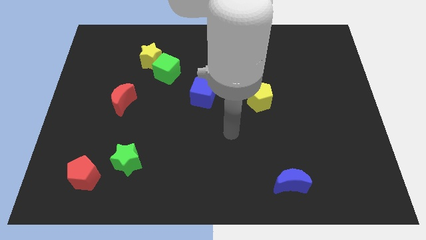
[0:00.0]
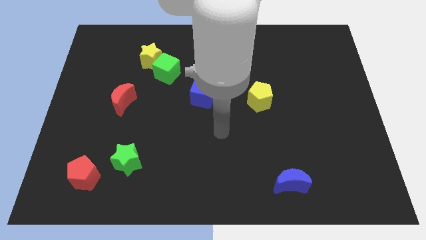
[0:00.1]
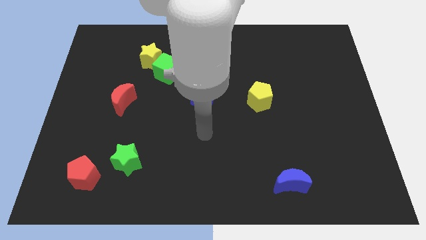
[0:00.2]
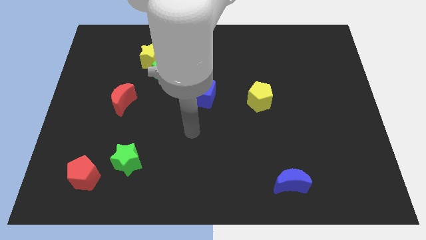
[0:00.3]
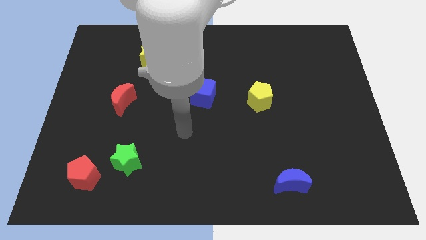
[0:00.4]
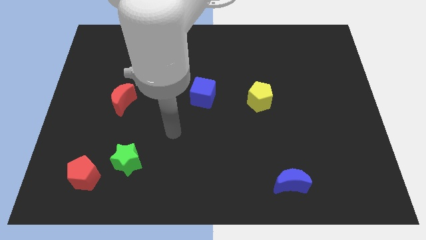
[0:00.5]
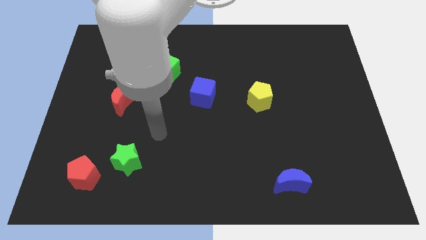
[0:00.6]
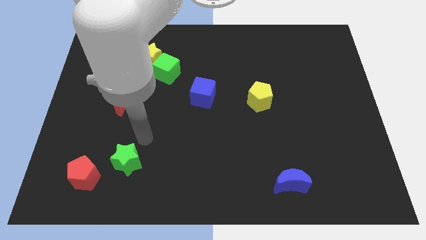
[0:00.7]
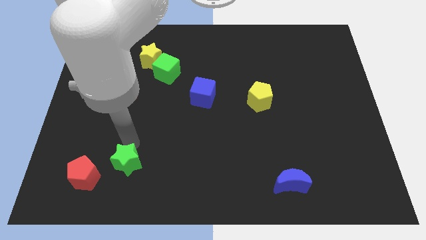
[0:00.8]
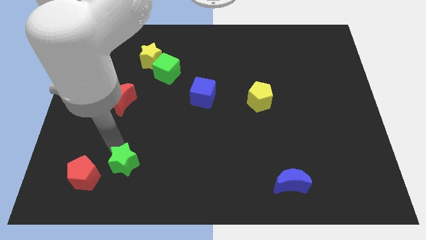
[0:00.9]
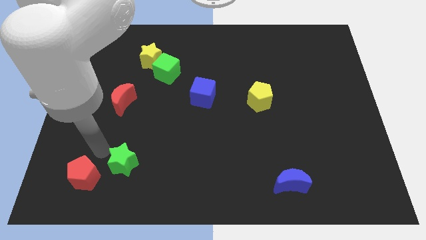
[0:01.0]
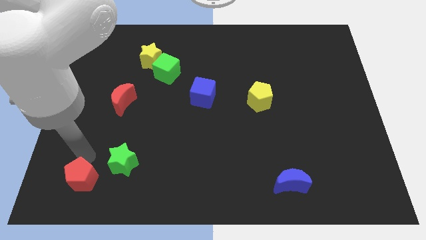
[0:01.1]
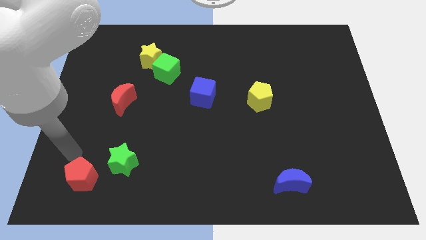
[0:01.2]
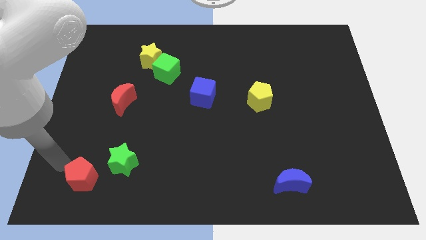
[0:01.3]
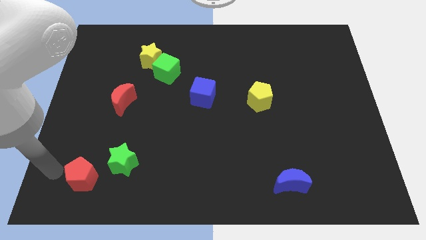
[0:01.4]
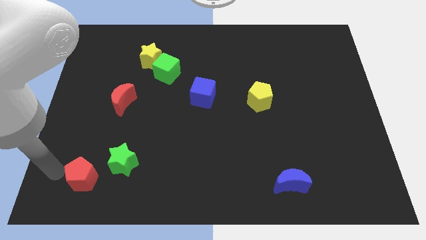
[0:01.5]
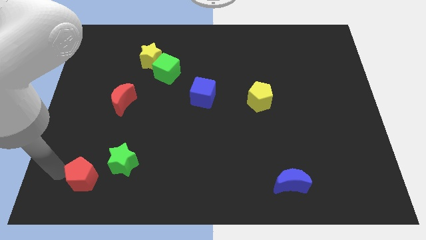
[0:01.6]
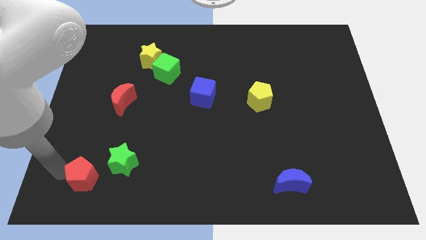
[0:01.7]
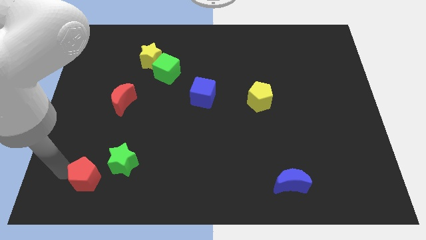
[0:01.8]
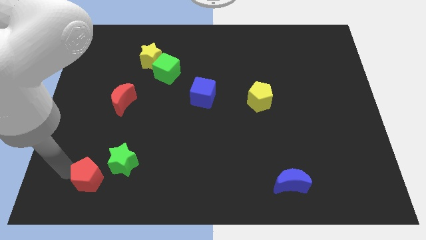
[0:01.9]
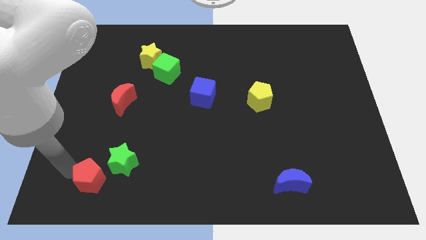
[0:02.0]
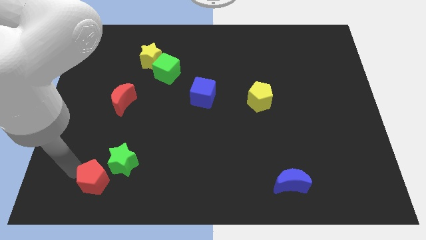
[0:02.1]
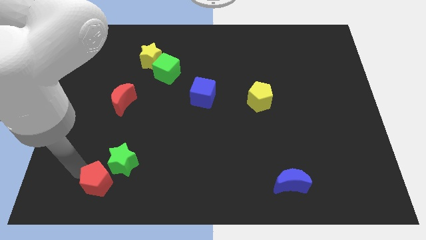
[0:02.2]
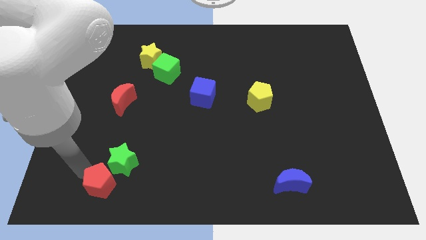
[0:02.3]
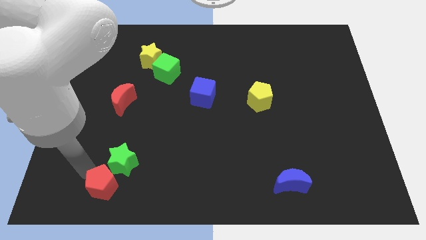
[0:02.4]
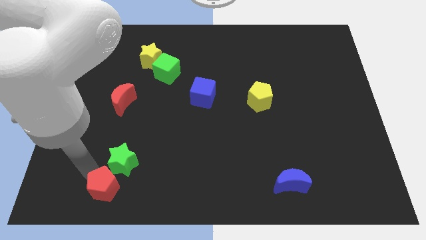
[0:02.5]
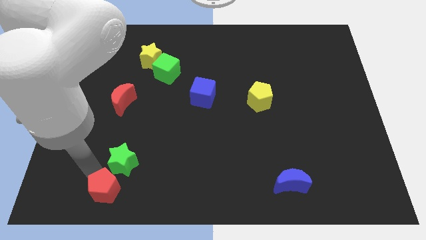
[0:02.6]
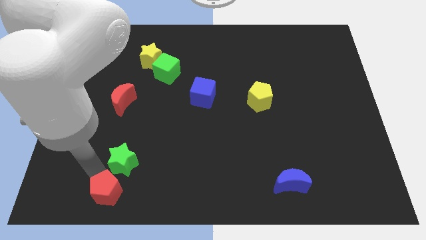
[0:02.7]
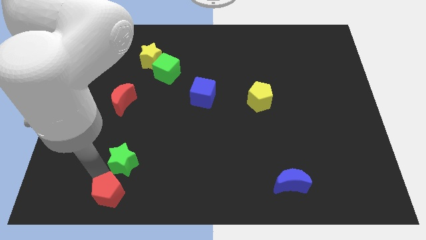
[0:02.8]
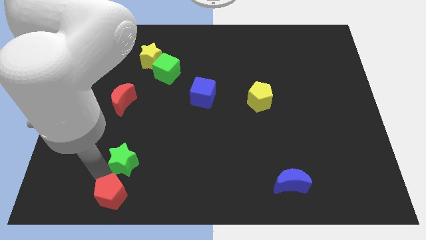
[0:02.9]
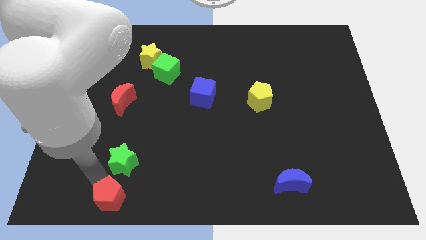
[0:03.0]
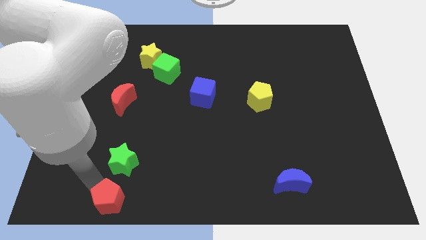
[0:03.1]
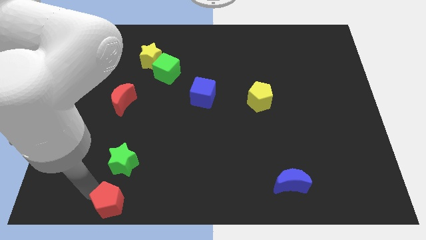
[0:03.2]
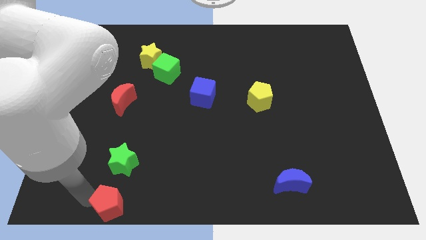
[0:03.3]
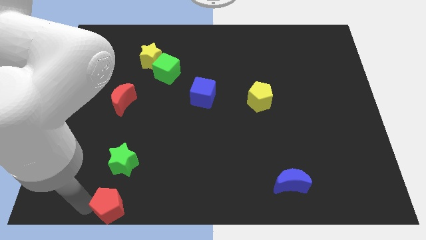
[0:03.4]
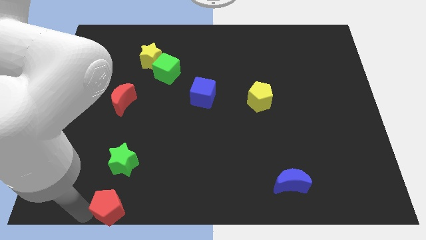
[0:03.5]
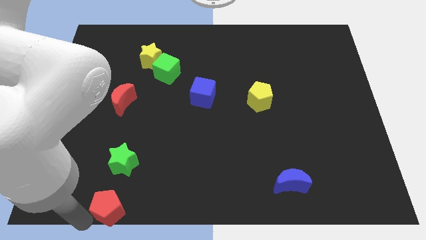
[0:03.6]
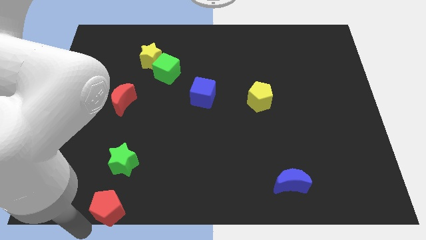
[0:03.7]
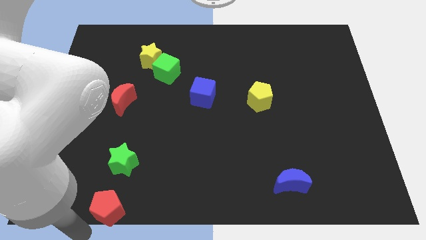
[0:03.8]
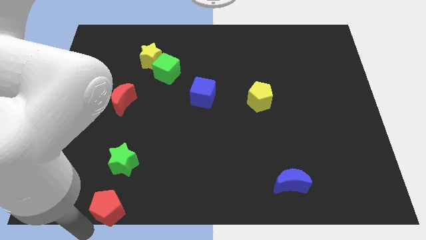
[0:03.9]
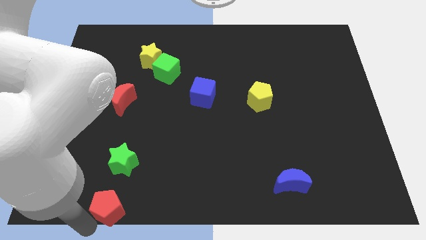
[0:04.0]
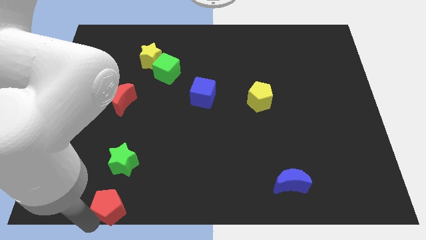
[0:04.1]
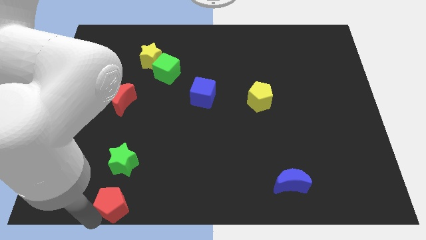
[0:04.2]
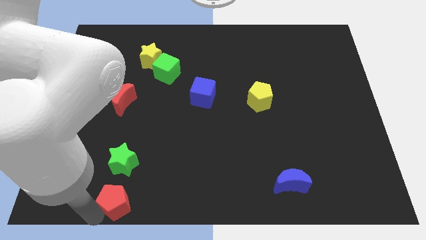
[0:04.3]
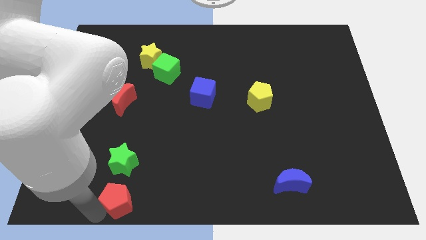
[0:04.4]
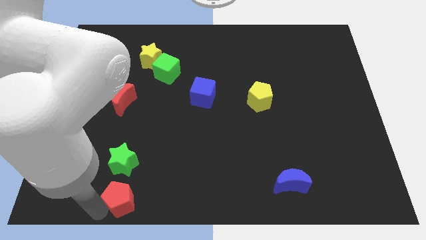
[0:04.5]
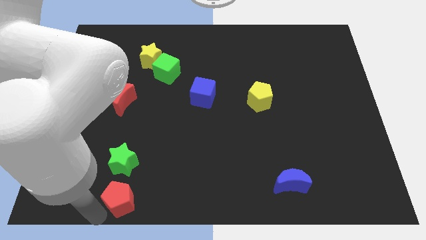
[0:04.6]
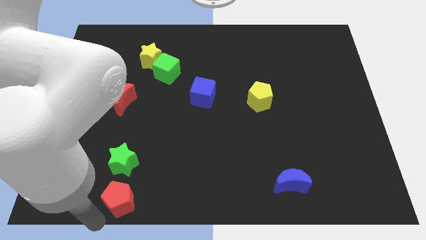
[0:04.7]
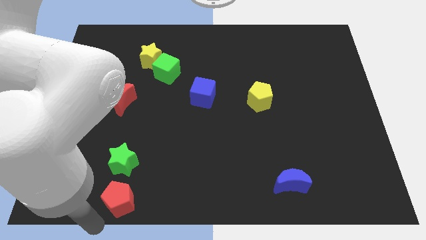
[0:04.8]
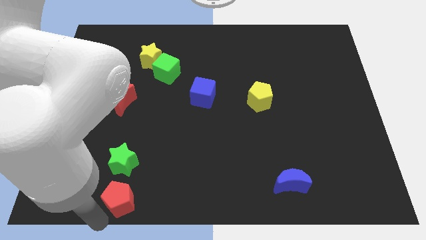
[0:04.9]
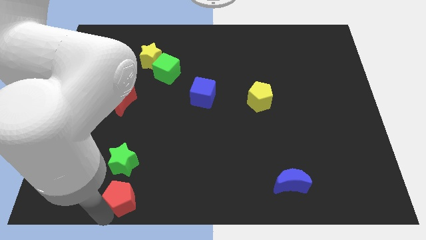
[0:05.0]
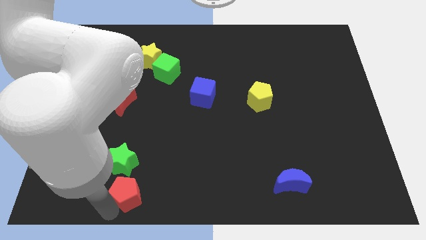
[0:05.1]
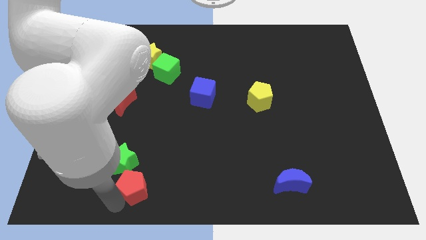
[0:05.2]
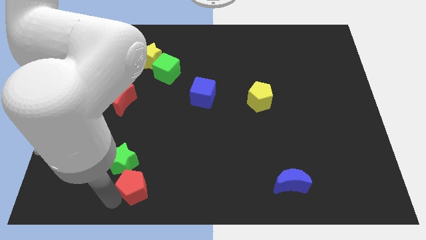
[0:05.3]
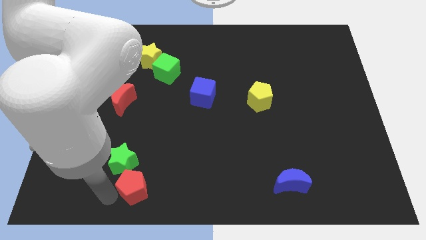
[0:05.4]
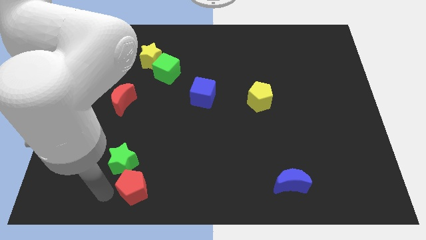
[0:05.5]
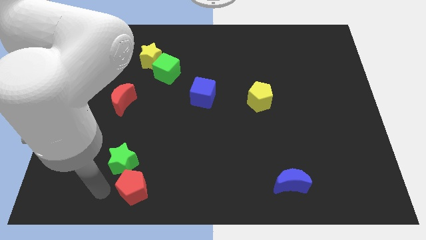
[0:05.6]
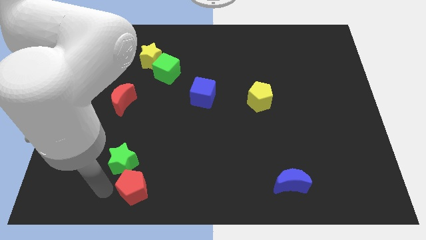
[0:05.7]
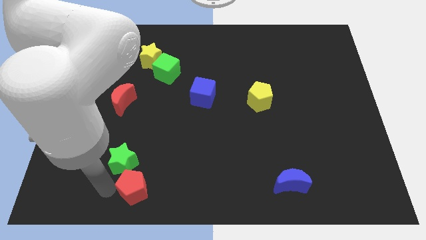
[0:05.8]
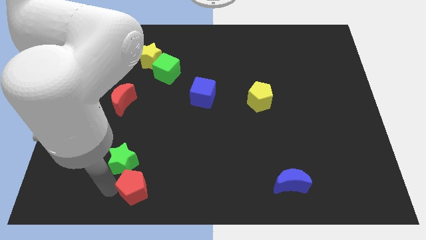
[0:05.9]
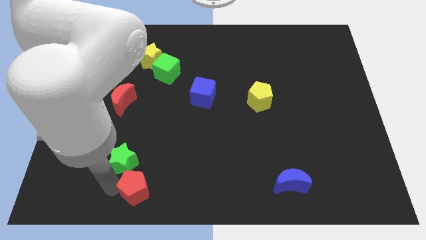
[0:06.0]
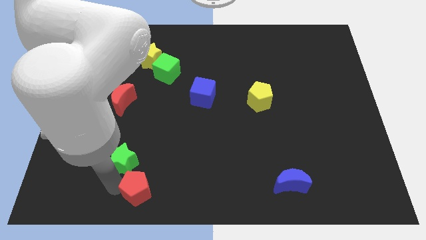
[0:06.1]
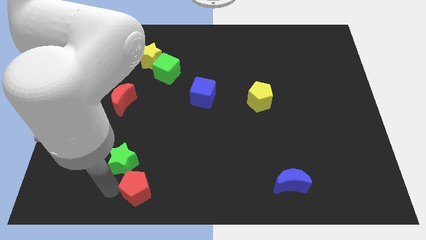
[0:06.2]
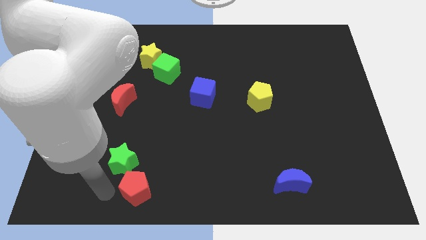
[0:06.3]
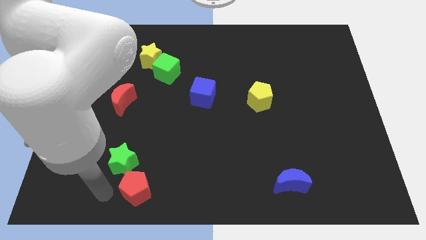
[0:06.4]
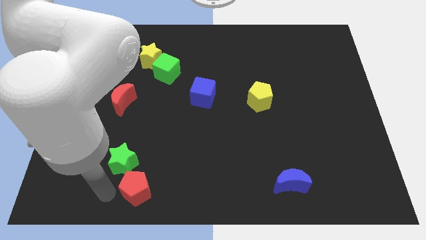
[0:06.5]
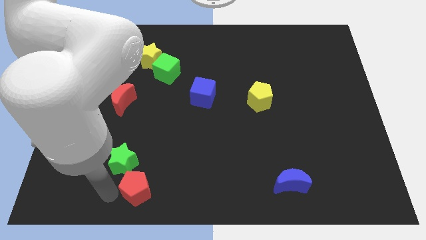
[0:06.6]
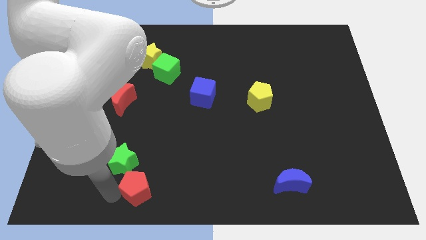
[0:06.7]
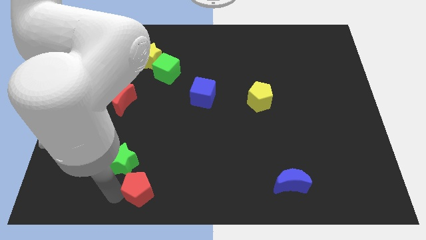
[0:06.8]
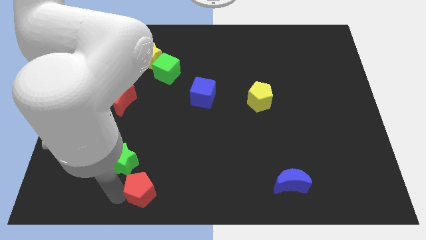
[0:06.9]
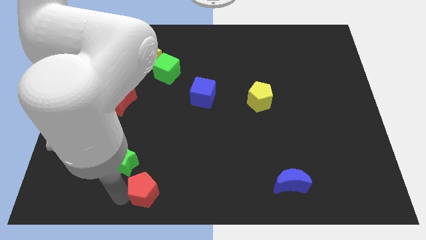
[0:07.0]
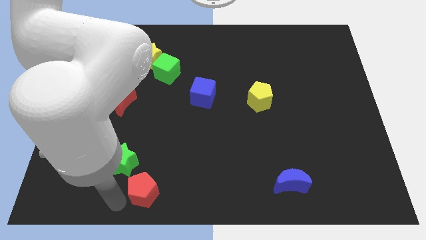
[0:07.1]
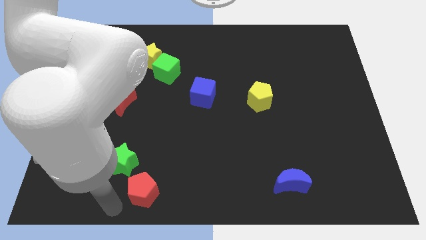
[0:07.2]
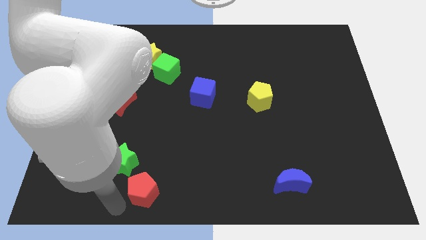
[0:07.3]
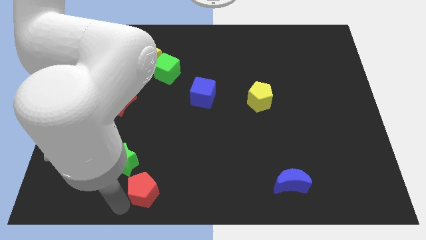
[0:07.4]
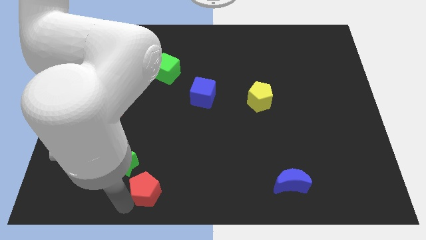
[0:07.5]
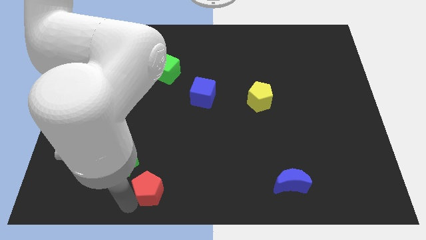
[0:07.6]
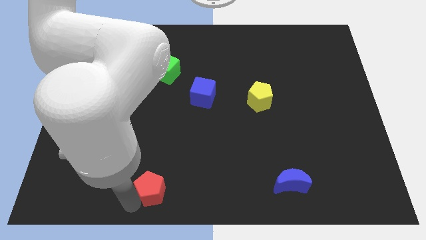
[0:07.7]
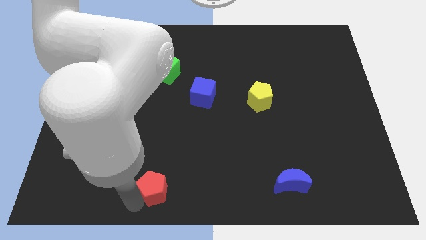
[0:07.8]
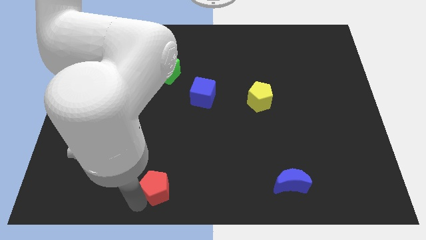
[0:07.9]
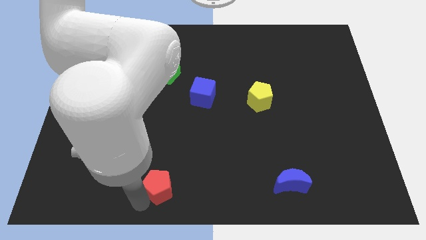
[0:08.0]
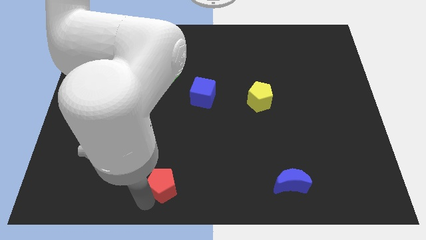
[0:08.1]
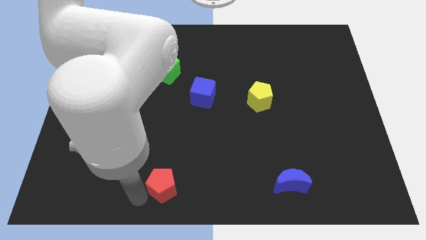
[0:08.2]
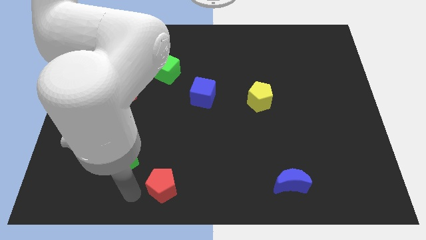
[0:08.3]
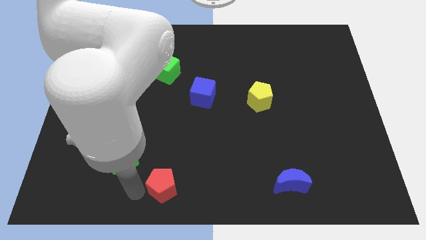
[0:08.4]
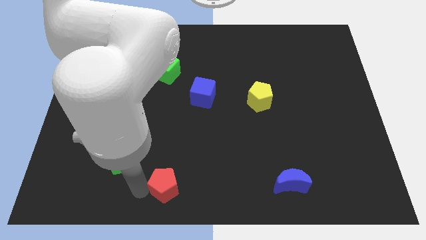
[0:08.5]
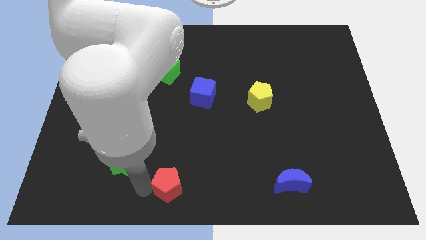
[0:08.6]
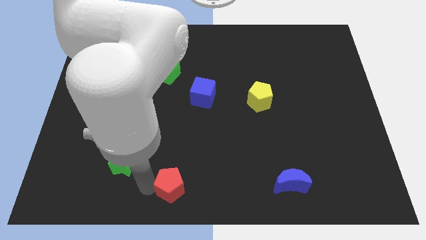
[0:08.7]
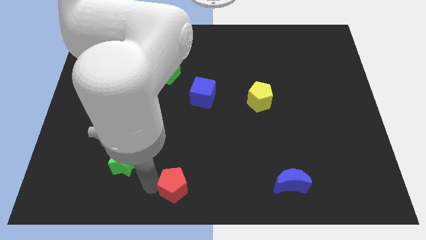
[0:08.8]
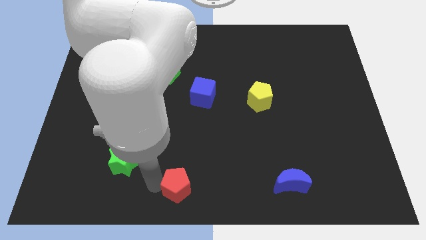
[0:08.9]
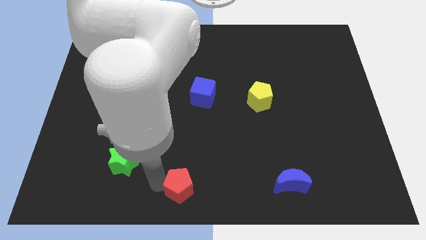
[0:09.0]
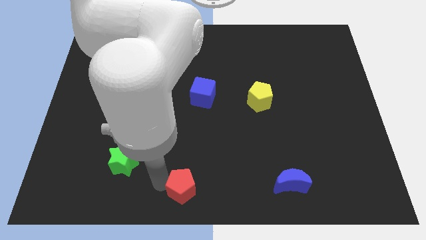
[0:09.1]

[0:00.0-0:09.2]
slide the red pentagon right
